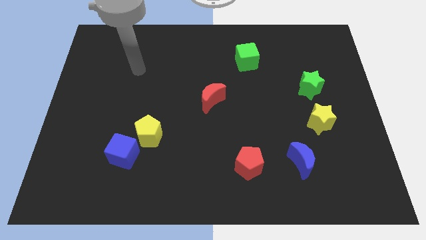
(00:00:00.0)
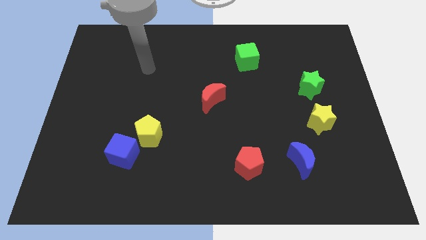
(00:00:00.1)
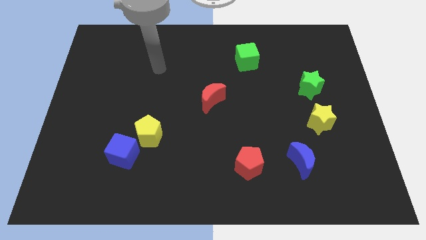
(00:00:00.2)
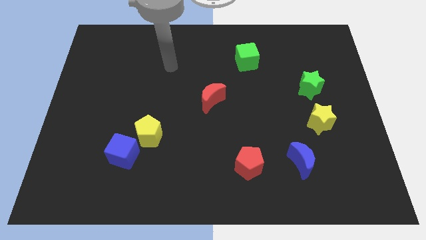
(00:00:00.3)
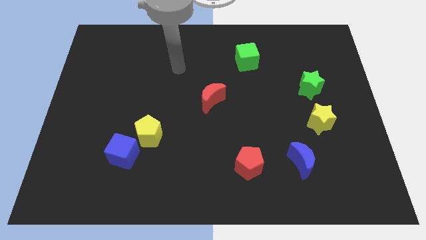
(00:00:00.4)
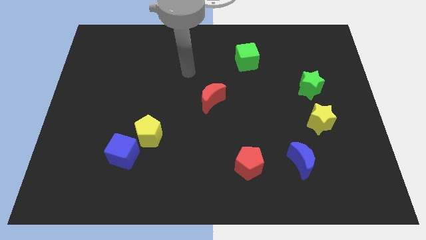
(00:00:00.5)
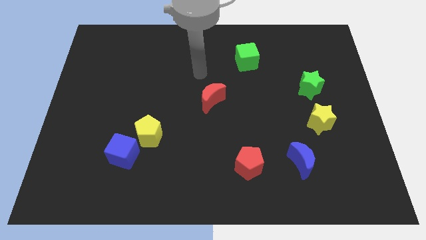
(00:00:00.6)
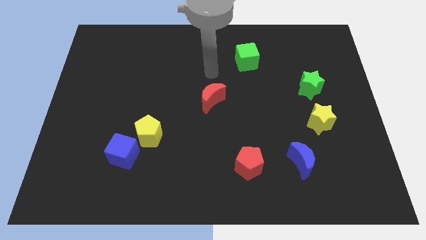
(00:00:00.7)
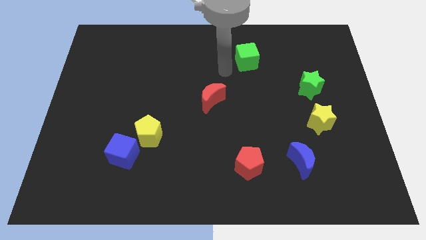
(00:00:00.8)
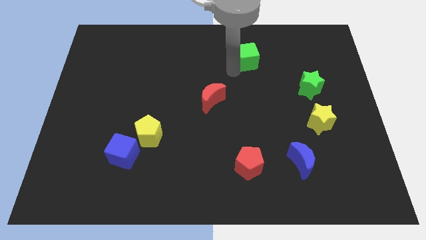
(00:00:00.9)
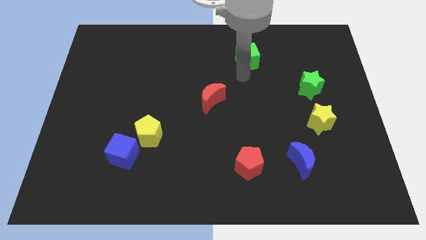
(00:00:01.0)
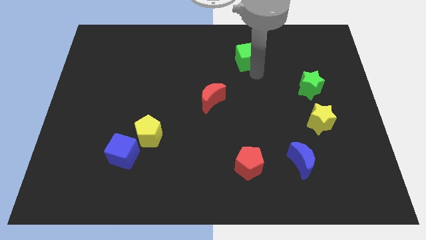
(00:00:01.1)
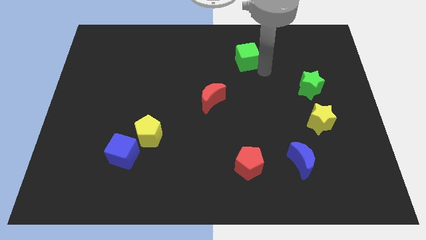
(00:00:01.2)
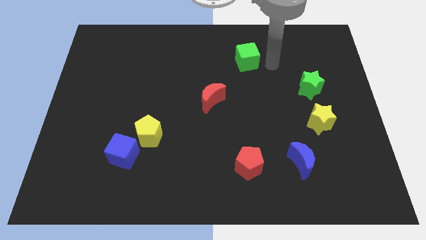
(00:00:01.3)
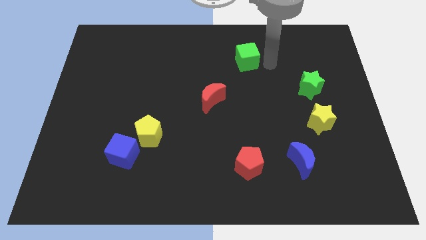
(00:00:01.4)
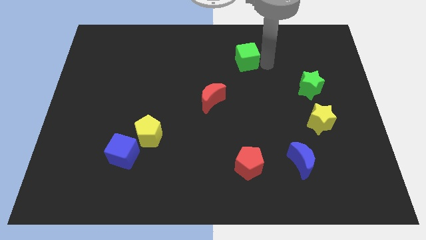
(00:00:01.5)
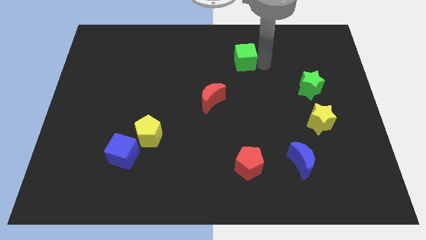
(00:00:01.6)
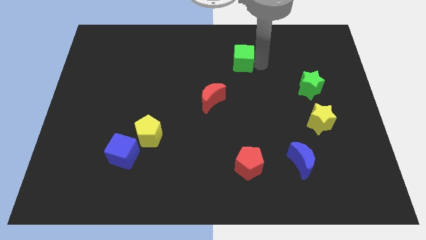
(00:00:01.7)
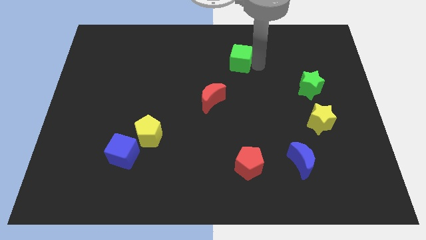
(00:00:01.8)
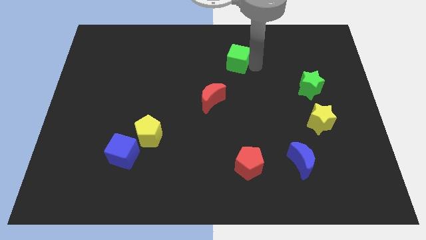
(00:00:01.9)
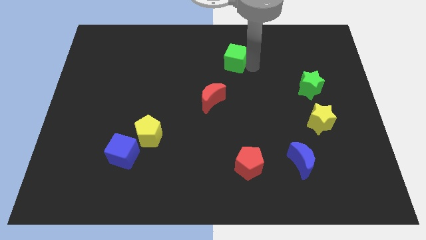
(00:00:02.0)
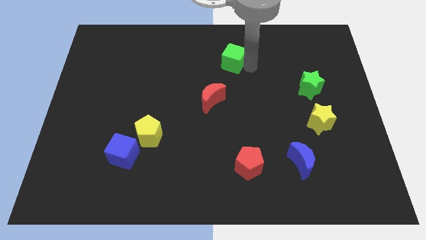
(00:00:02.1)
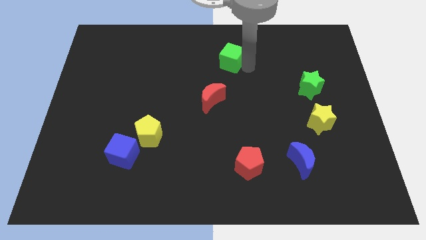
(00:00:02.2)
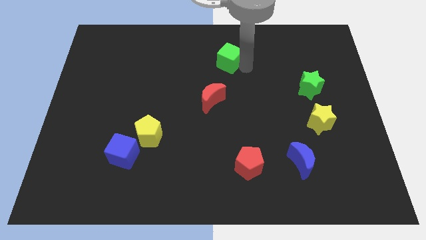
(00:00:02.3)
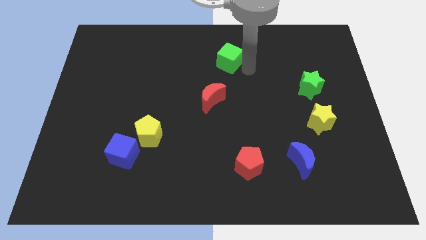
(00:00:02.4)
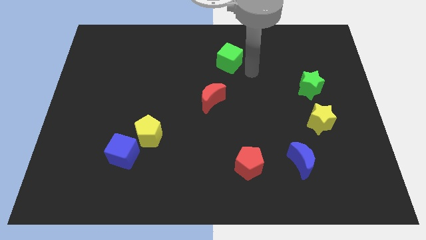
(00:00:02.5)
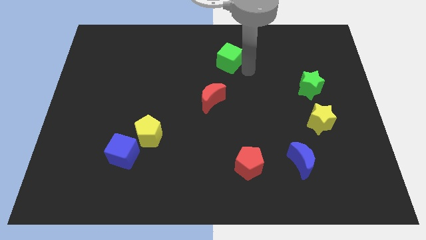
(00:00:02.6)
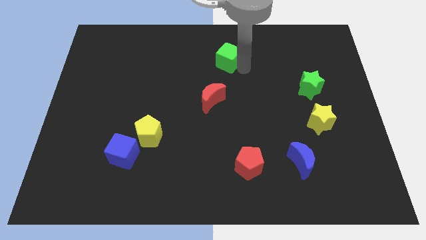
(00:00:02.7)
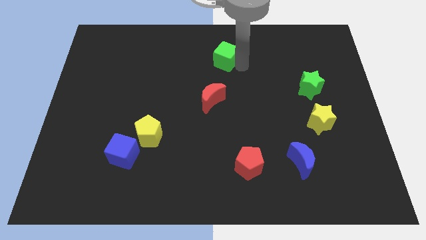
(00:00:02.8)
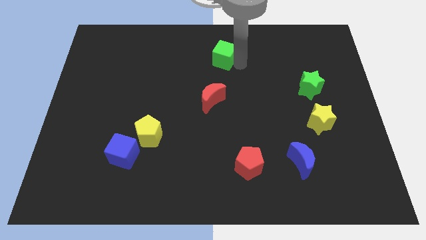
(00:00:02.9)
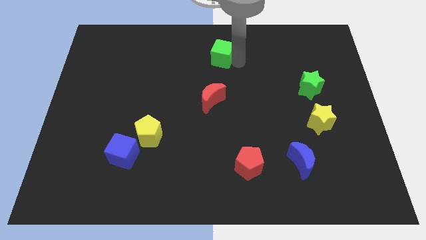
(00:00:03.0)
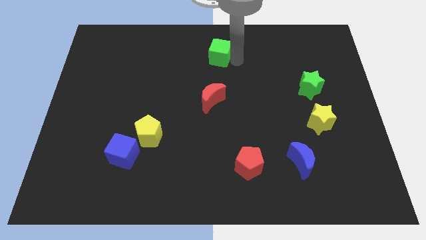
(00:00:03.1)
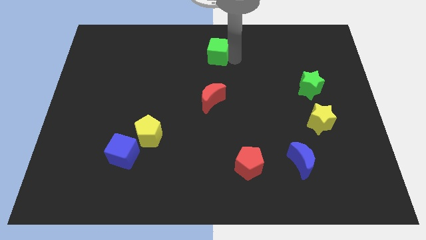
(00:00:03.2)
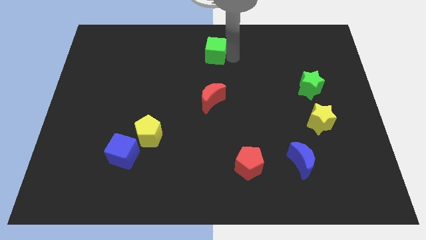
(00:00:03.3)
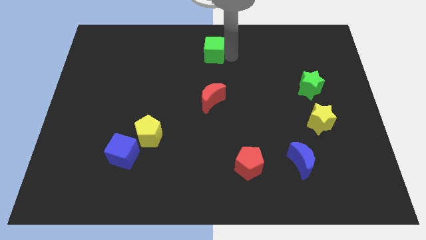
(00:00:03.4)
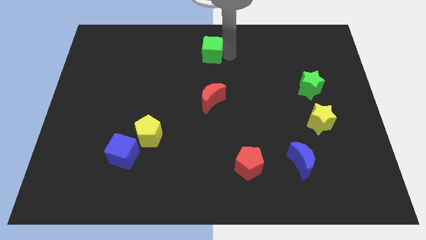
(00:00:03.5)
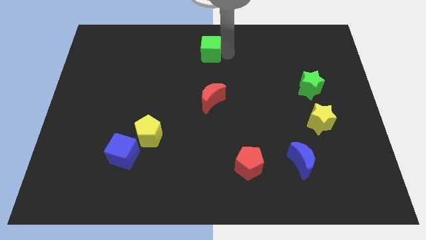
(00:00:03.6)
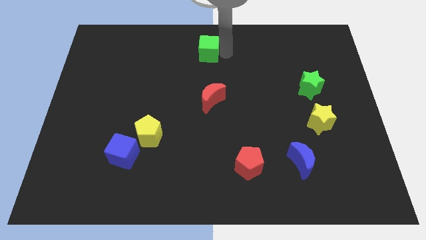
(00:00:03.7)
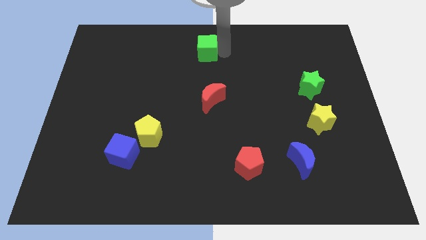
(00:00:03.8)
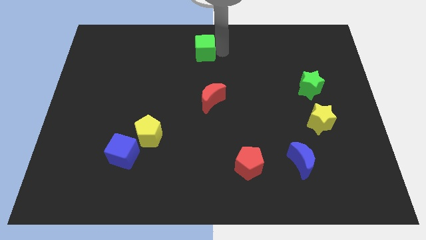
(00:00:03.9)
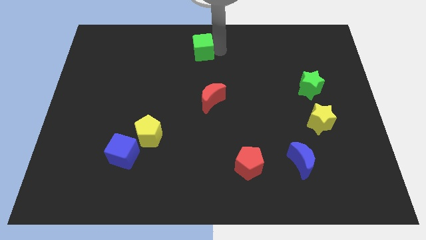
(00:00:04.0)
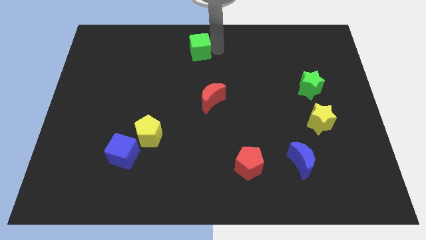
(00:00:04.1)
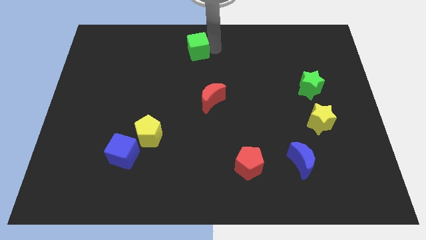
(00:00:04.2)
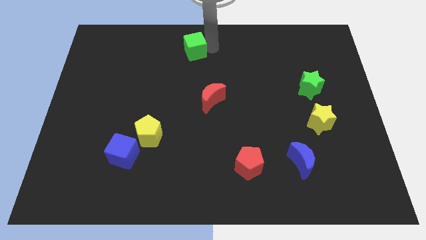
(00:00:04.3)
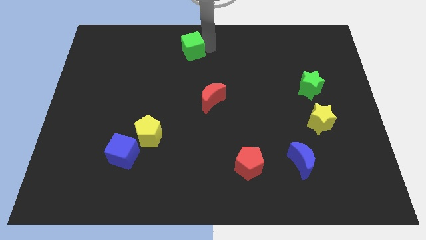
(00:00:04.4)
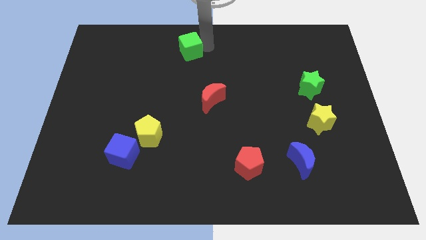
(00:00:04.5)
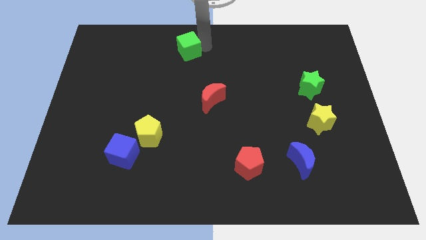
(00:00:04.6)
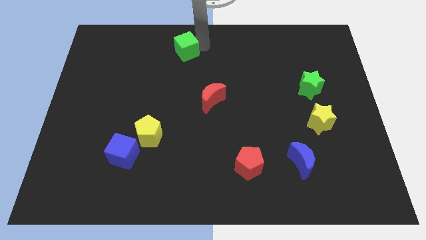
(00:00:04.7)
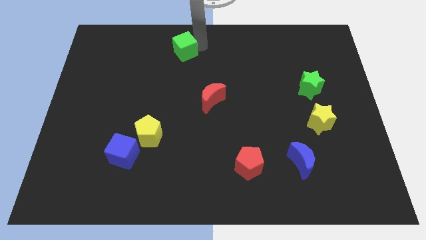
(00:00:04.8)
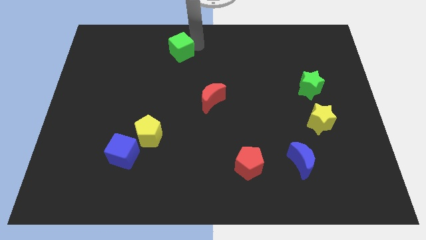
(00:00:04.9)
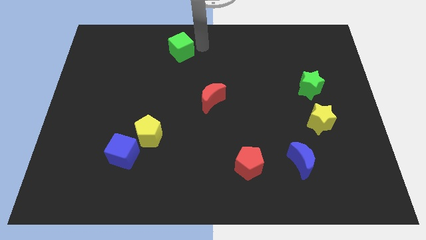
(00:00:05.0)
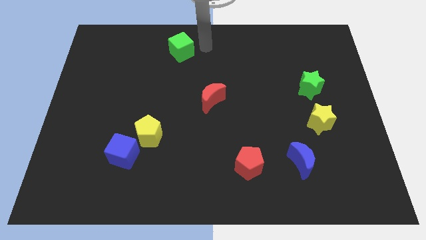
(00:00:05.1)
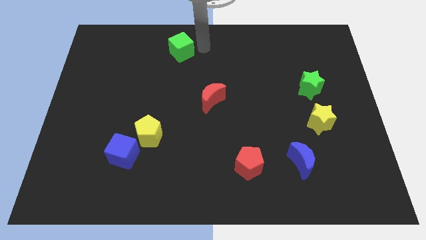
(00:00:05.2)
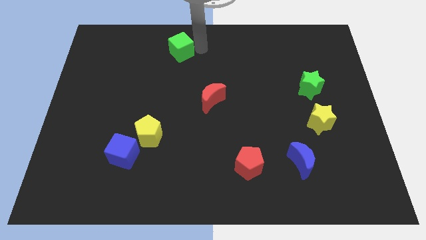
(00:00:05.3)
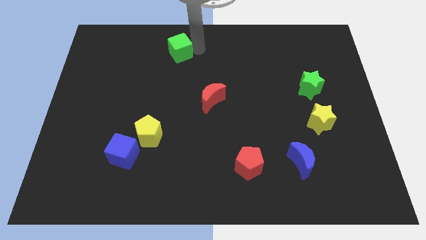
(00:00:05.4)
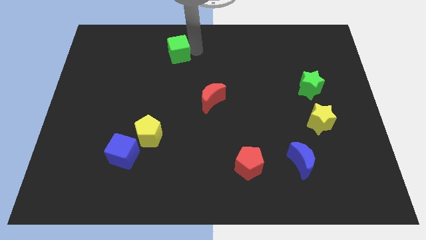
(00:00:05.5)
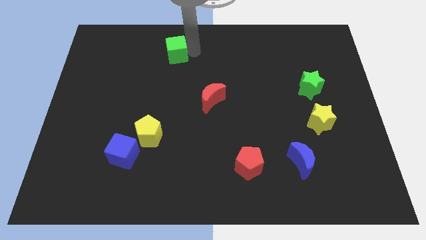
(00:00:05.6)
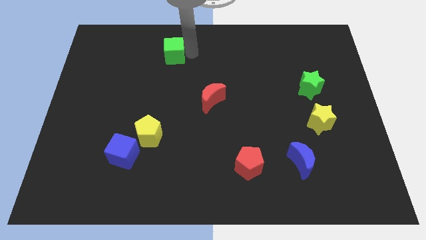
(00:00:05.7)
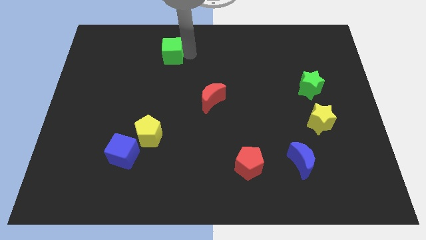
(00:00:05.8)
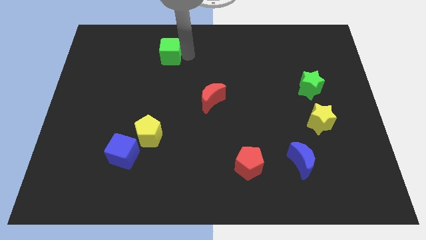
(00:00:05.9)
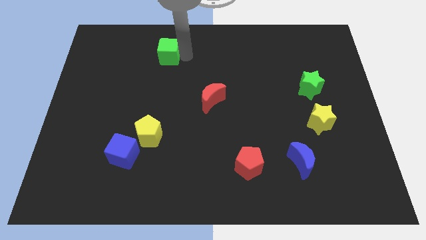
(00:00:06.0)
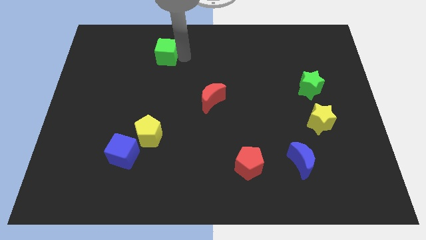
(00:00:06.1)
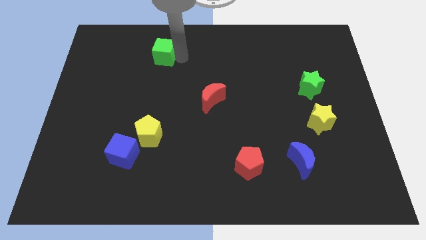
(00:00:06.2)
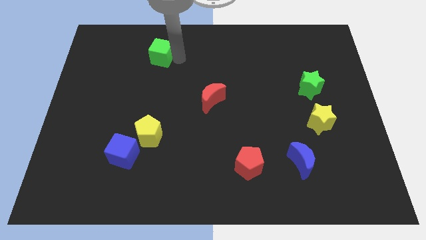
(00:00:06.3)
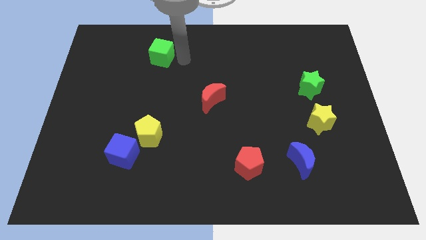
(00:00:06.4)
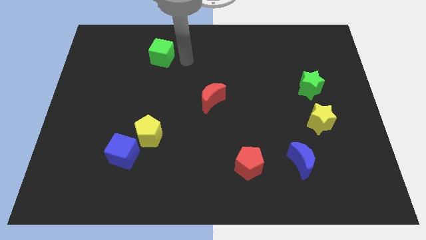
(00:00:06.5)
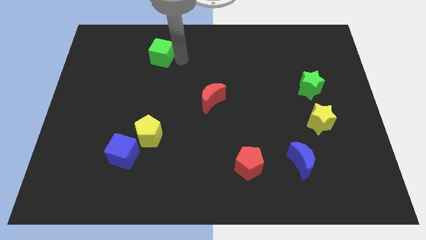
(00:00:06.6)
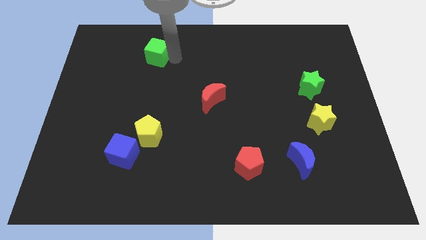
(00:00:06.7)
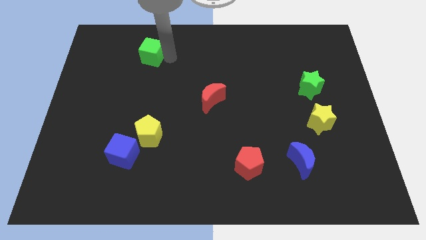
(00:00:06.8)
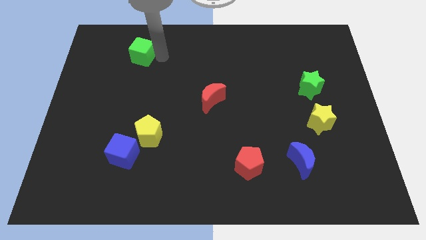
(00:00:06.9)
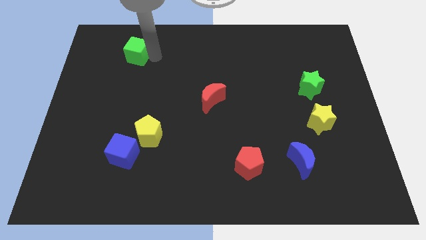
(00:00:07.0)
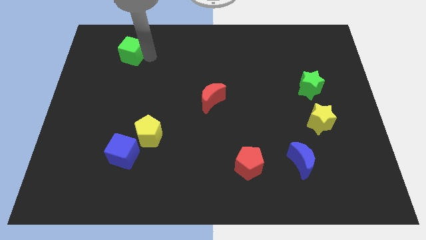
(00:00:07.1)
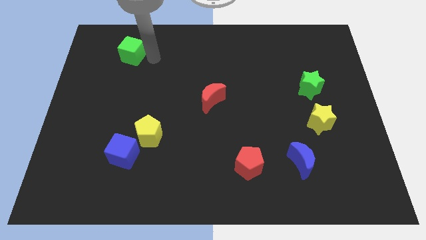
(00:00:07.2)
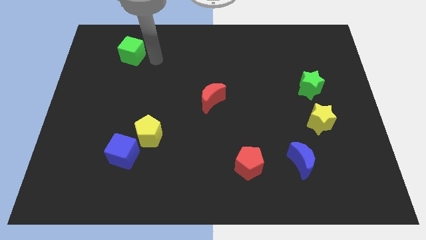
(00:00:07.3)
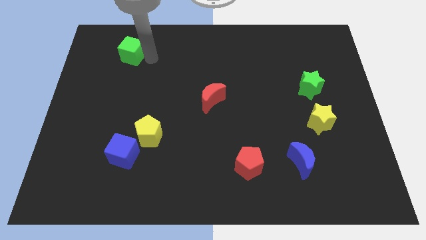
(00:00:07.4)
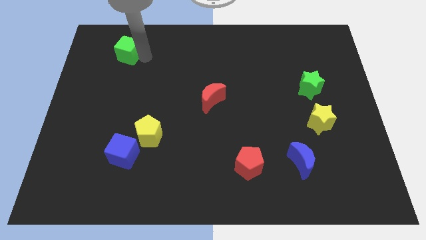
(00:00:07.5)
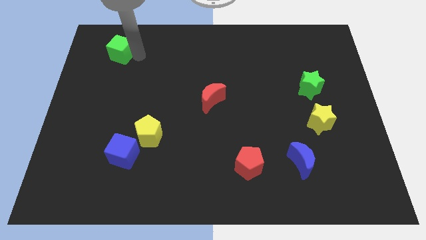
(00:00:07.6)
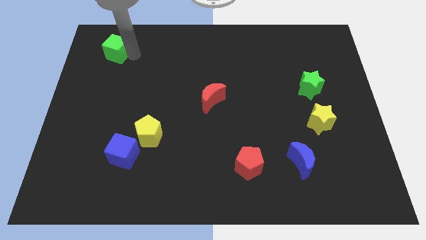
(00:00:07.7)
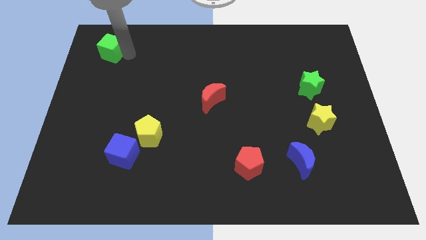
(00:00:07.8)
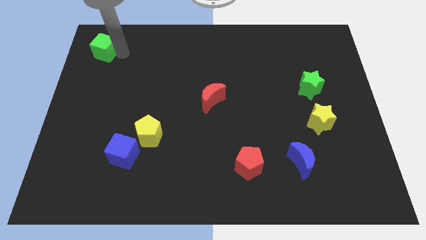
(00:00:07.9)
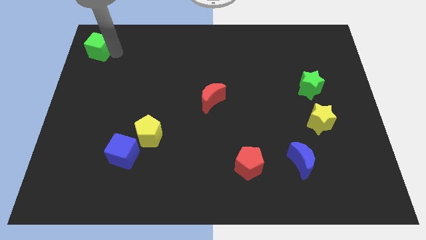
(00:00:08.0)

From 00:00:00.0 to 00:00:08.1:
put the green cube to the top left
